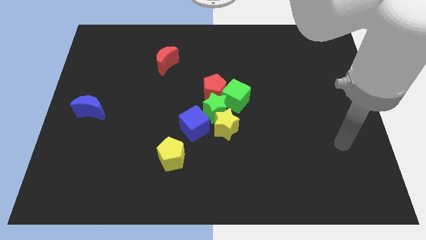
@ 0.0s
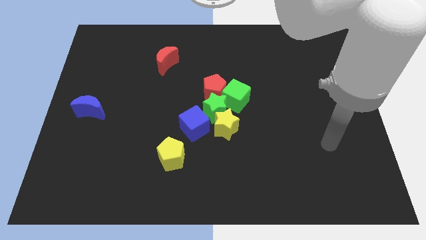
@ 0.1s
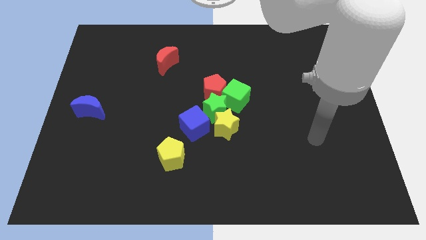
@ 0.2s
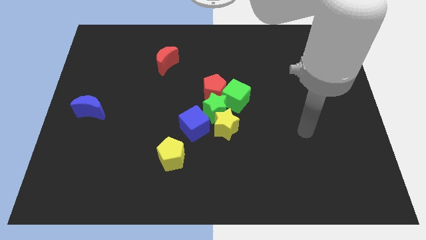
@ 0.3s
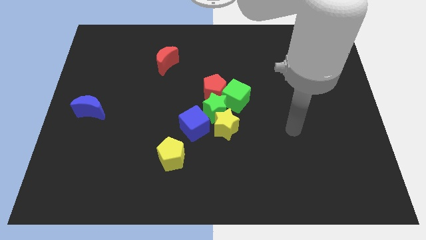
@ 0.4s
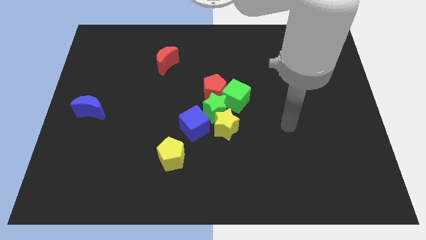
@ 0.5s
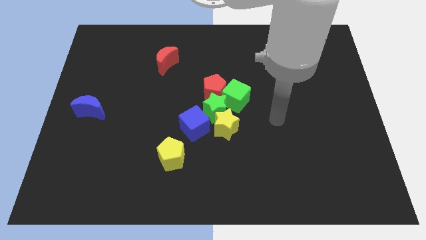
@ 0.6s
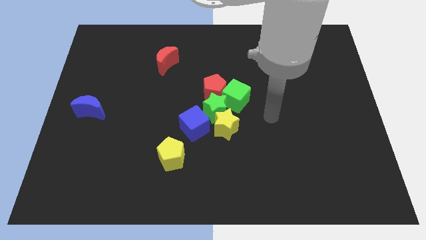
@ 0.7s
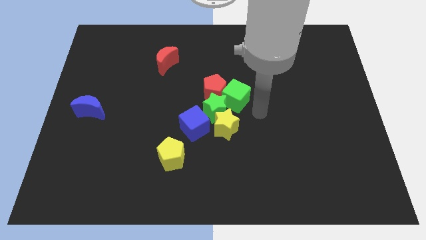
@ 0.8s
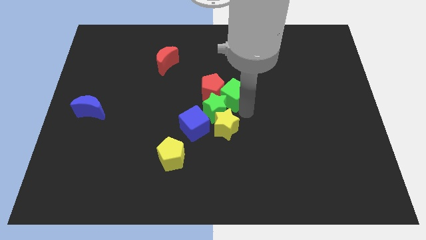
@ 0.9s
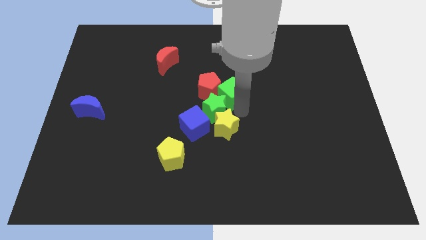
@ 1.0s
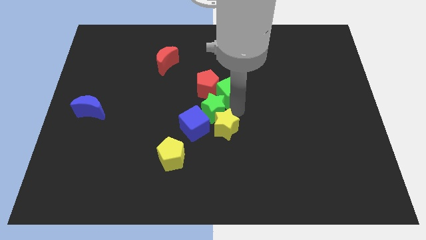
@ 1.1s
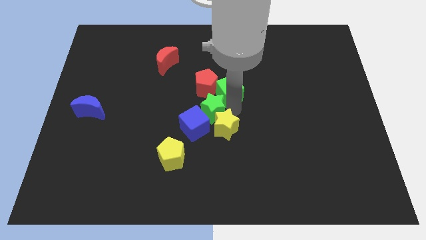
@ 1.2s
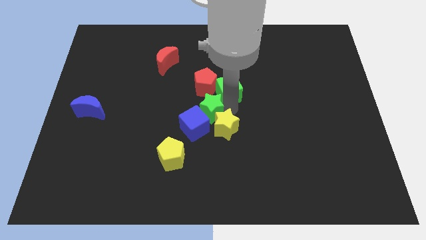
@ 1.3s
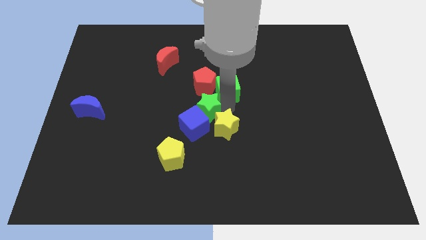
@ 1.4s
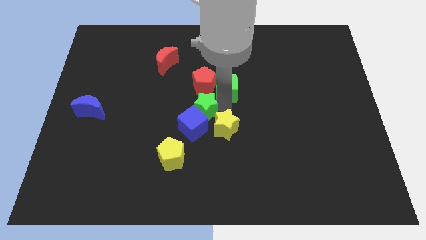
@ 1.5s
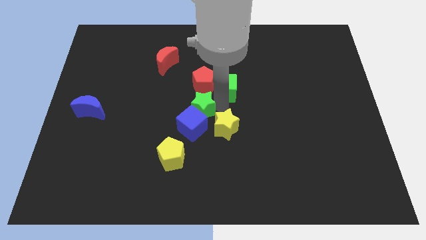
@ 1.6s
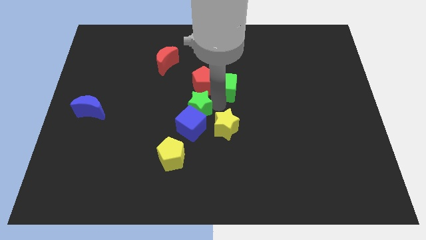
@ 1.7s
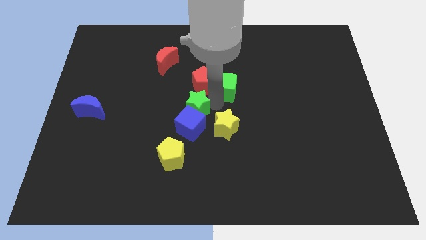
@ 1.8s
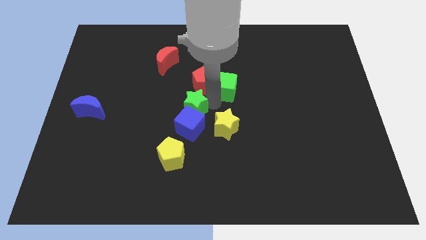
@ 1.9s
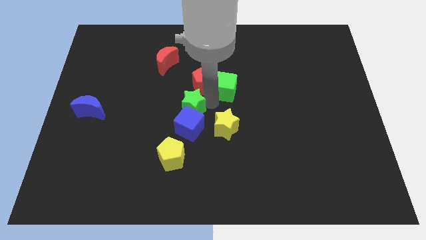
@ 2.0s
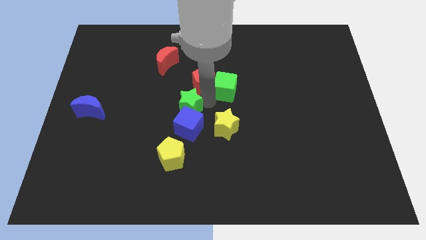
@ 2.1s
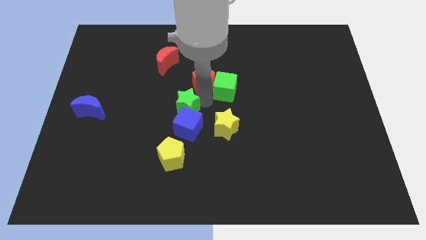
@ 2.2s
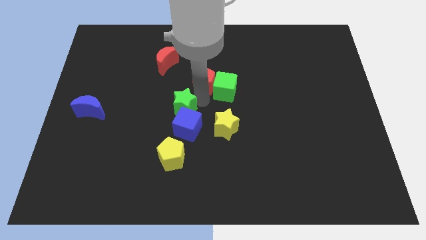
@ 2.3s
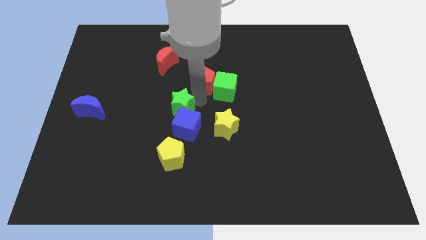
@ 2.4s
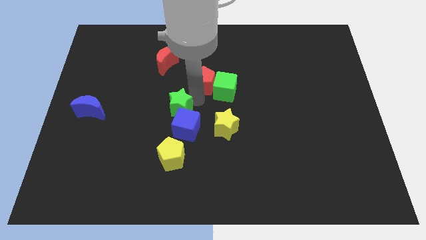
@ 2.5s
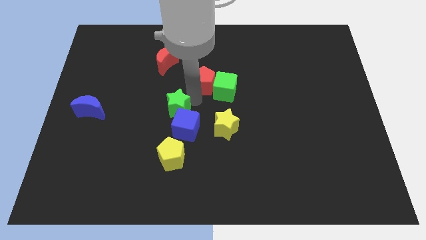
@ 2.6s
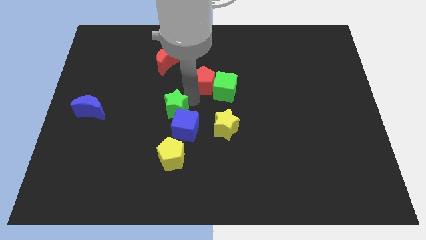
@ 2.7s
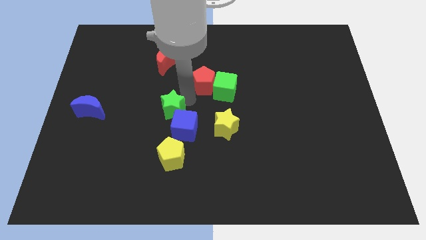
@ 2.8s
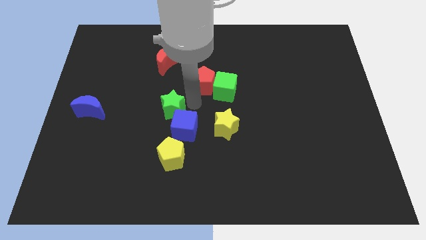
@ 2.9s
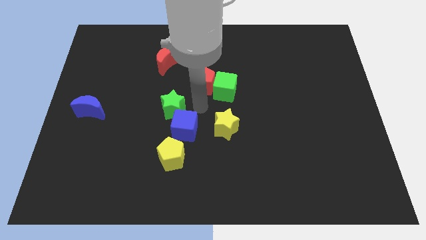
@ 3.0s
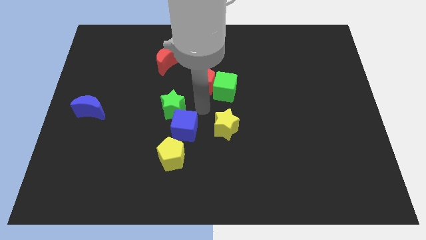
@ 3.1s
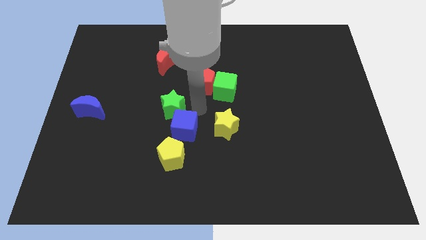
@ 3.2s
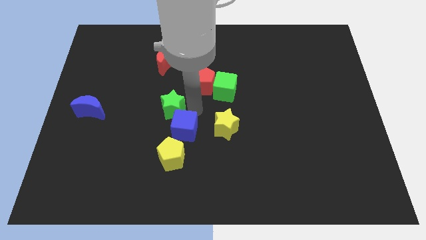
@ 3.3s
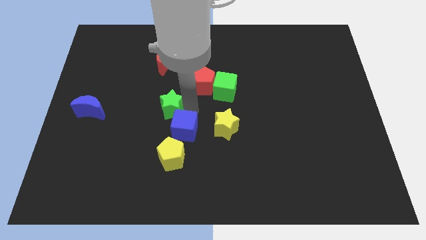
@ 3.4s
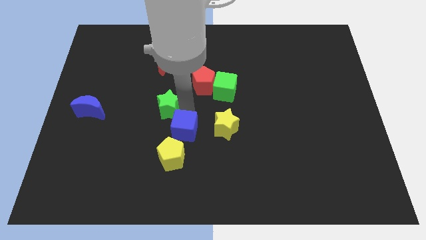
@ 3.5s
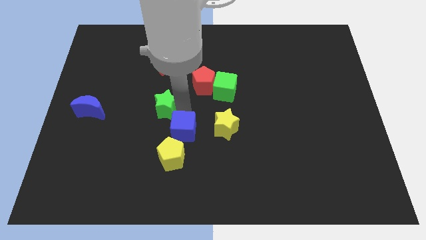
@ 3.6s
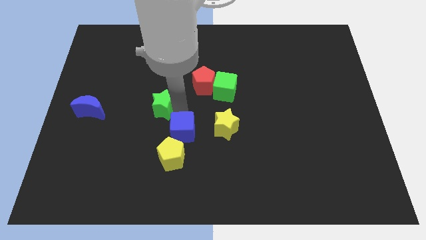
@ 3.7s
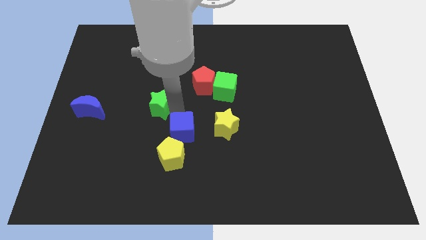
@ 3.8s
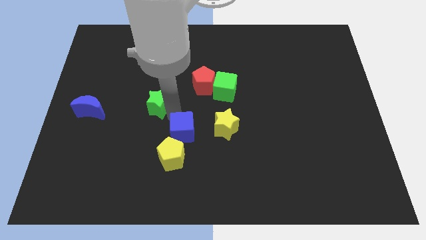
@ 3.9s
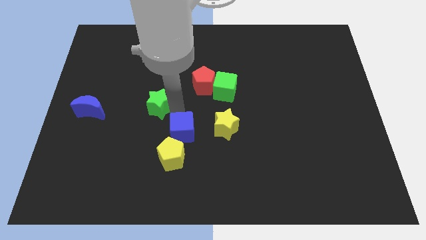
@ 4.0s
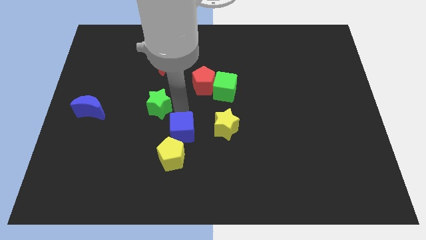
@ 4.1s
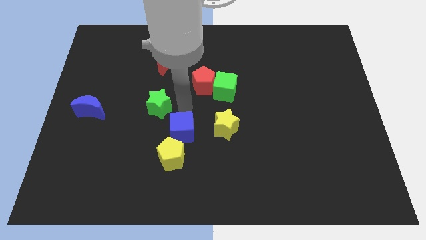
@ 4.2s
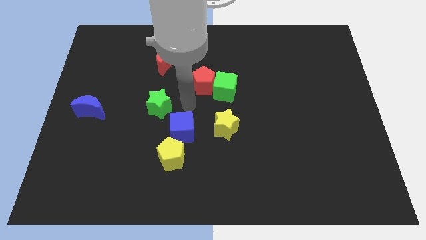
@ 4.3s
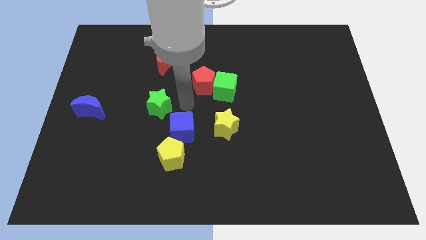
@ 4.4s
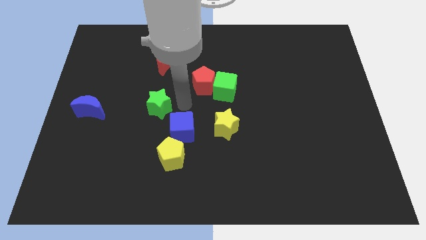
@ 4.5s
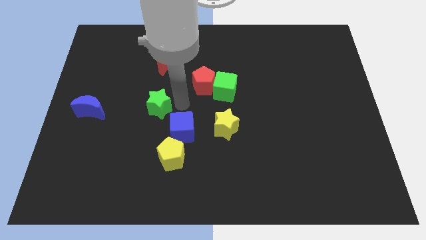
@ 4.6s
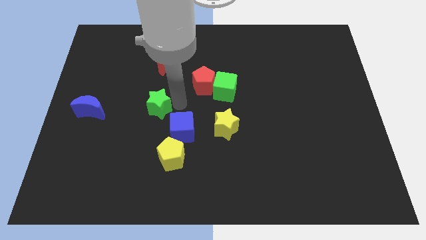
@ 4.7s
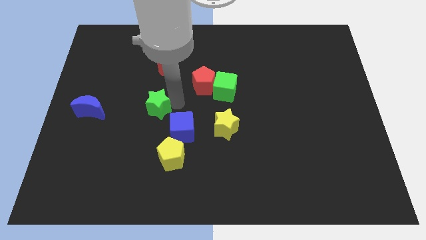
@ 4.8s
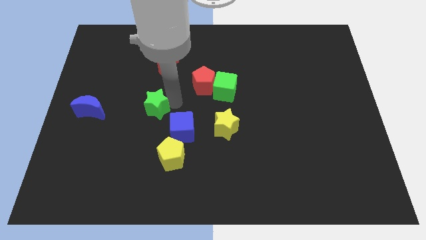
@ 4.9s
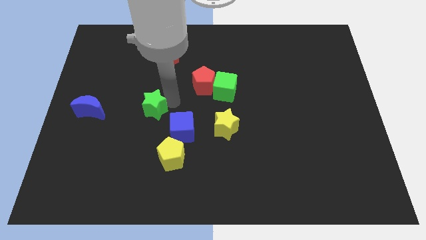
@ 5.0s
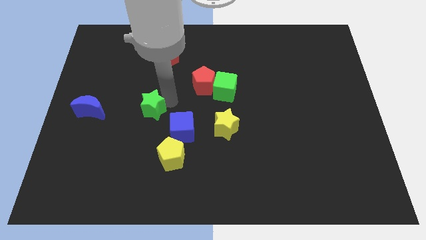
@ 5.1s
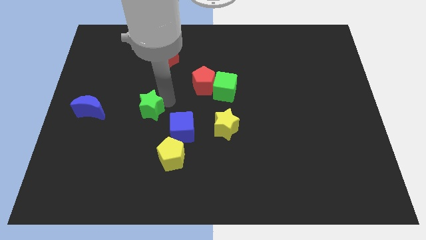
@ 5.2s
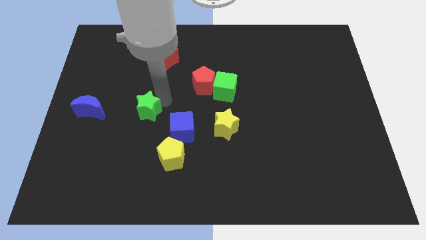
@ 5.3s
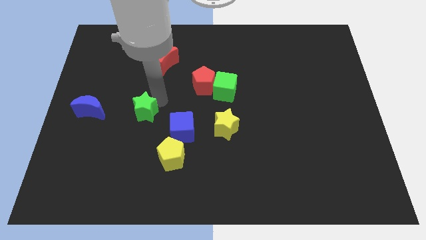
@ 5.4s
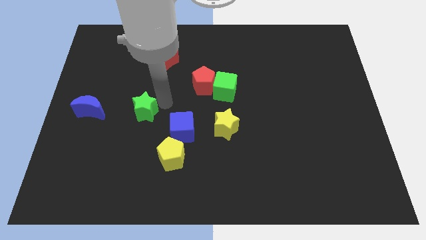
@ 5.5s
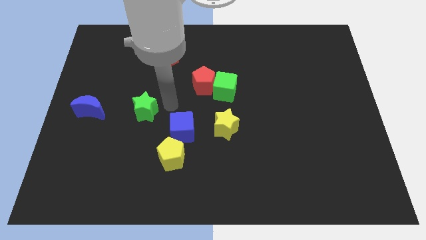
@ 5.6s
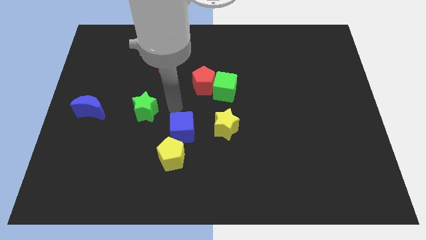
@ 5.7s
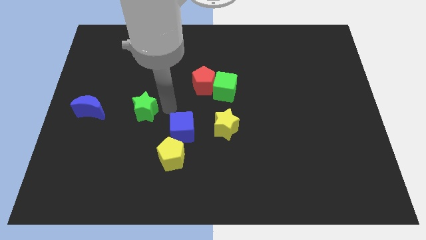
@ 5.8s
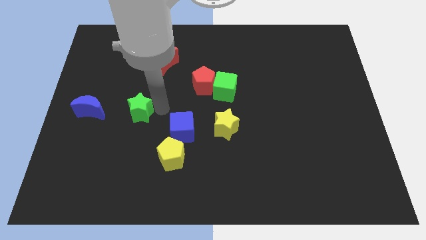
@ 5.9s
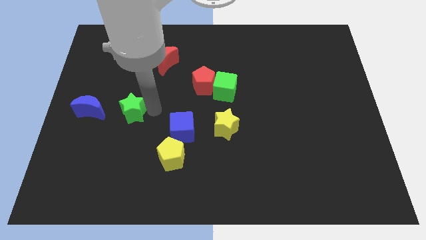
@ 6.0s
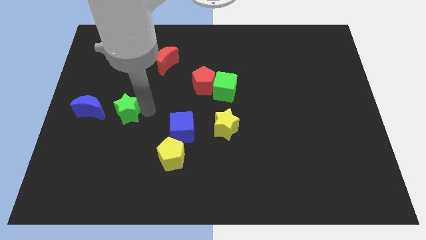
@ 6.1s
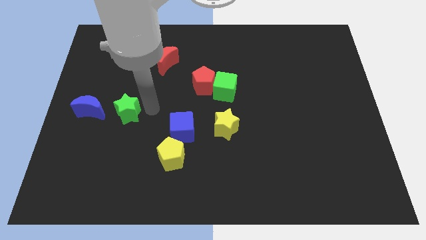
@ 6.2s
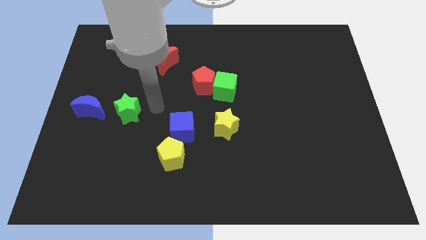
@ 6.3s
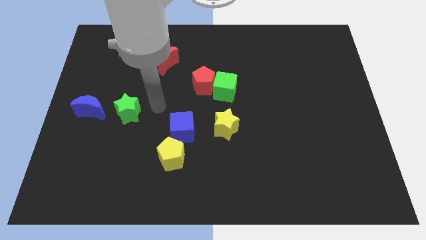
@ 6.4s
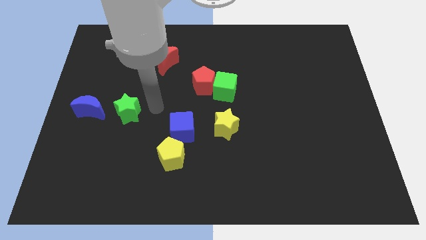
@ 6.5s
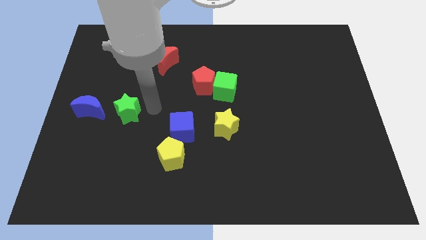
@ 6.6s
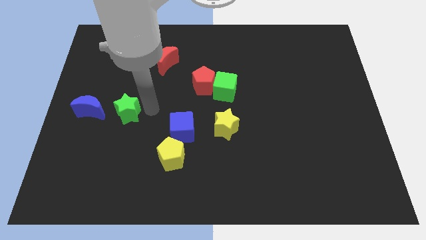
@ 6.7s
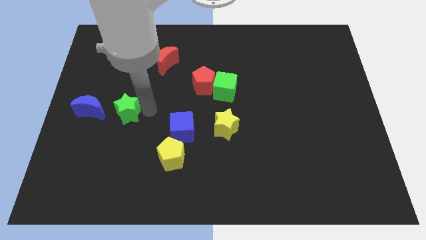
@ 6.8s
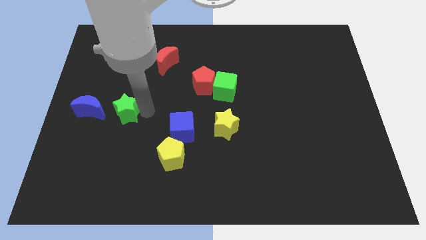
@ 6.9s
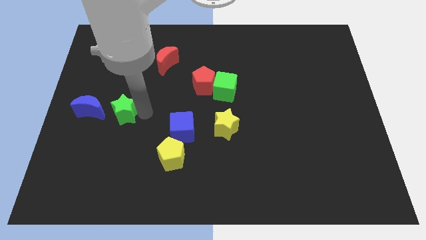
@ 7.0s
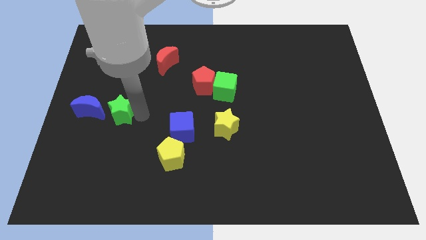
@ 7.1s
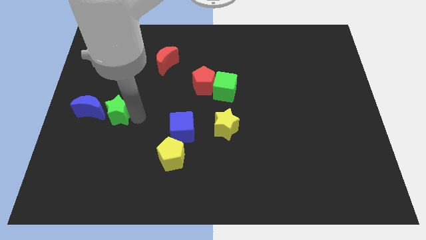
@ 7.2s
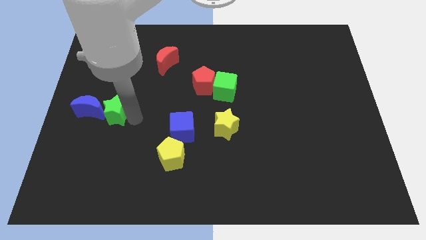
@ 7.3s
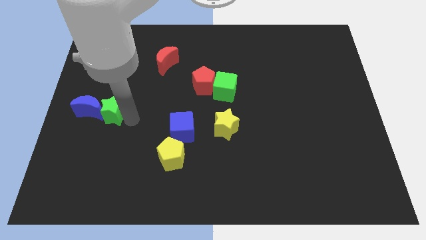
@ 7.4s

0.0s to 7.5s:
push the green star to the blue moon

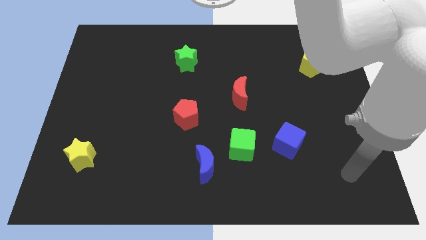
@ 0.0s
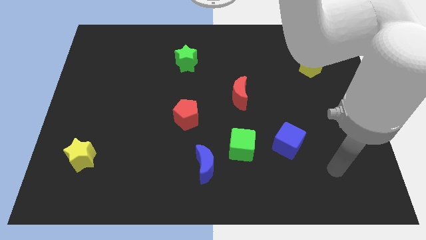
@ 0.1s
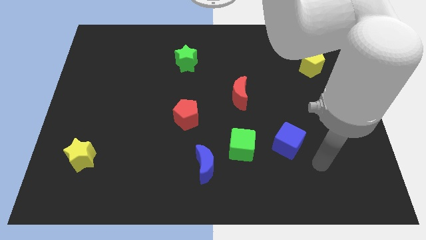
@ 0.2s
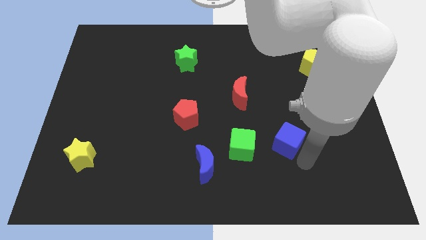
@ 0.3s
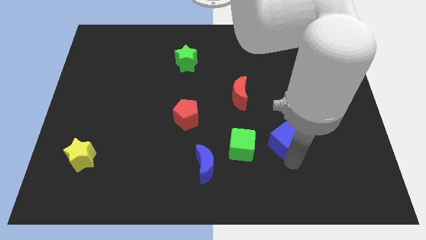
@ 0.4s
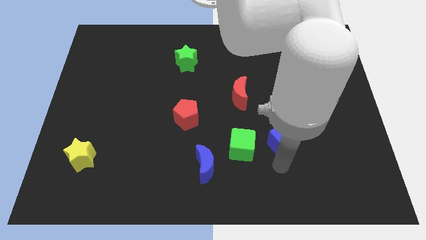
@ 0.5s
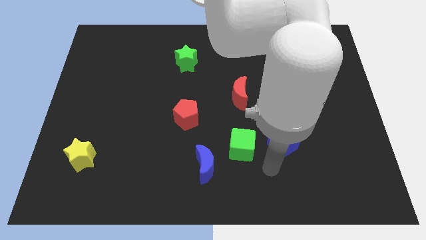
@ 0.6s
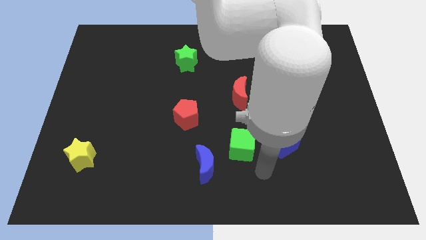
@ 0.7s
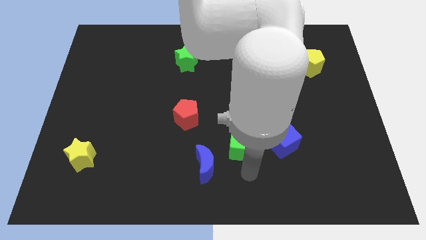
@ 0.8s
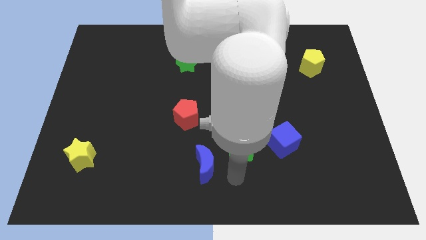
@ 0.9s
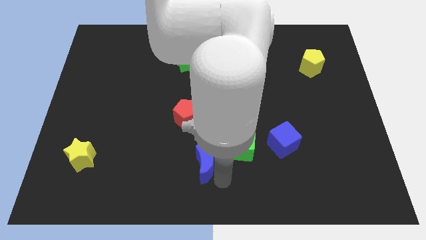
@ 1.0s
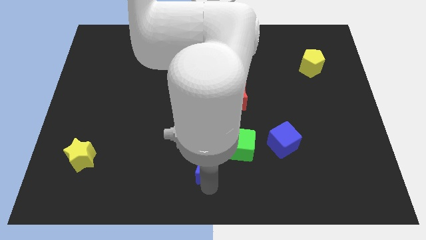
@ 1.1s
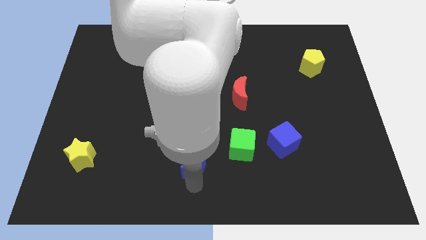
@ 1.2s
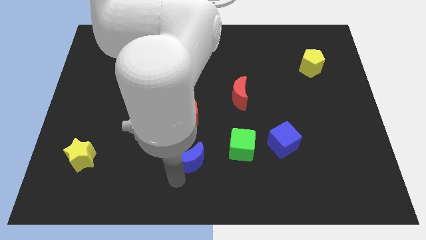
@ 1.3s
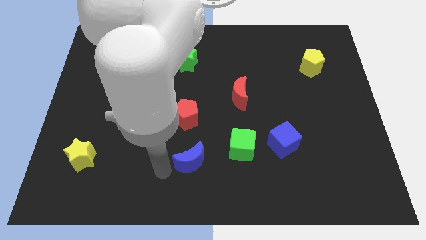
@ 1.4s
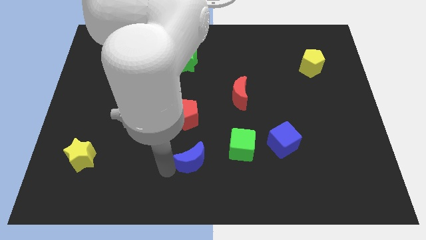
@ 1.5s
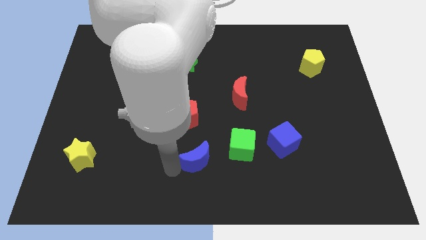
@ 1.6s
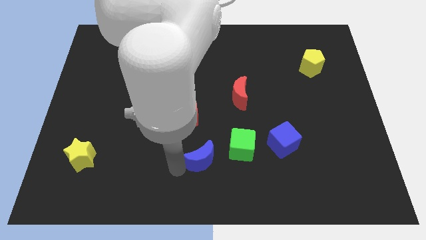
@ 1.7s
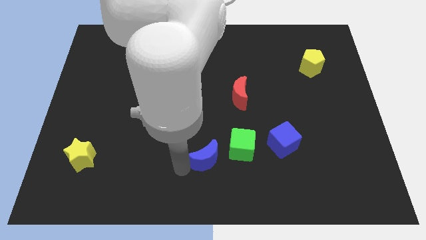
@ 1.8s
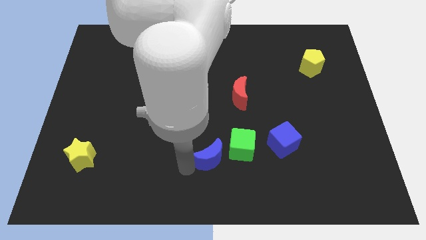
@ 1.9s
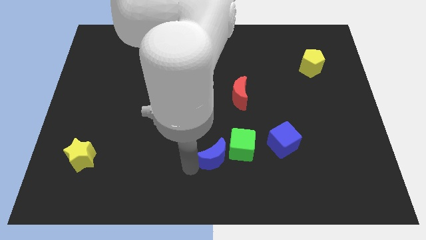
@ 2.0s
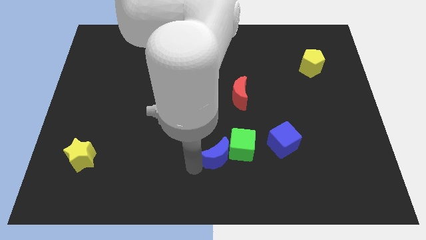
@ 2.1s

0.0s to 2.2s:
move the blue moon to the green cube
